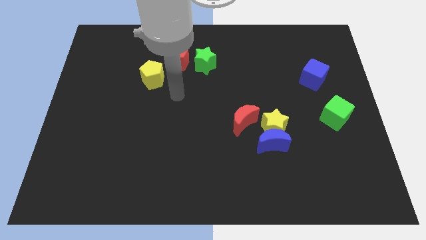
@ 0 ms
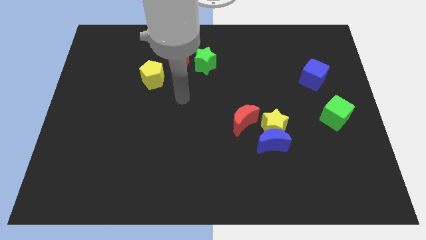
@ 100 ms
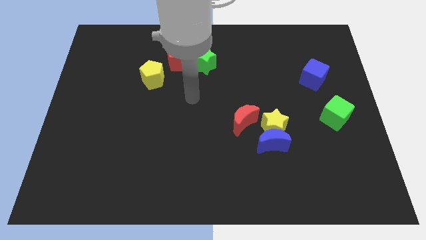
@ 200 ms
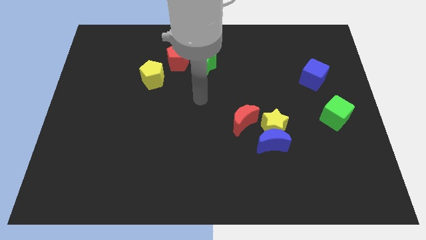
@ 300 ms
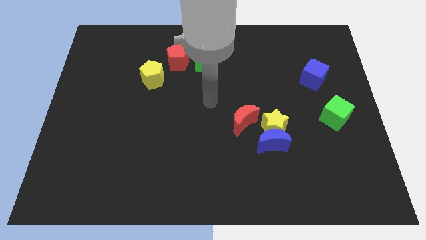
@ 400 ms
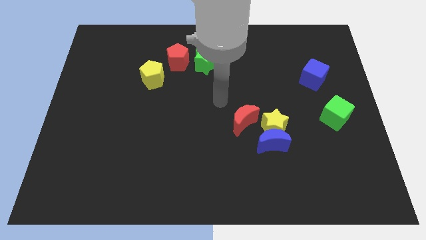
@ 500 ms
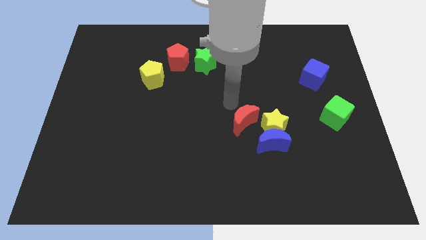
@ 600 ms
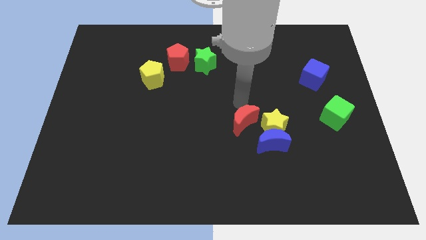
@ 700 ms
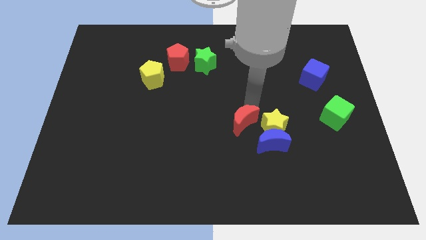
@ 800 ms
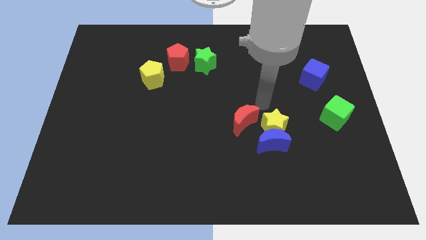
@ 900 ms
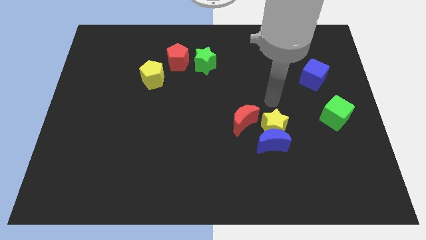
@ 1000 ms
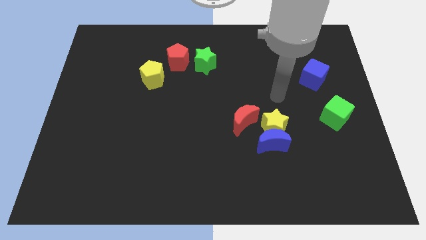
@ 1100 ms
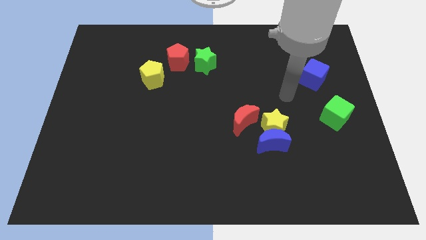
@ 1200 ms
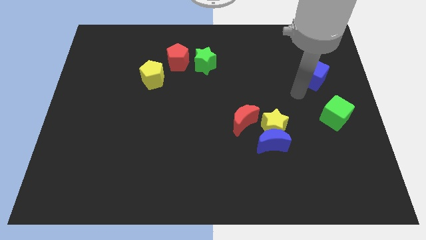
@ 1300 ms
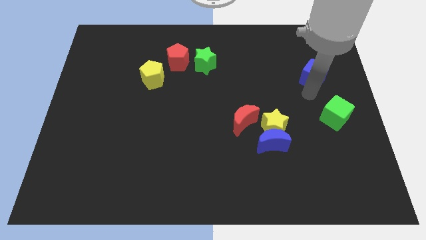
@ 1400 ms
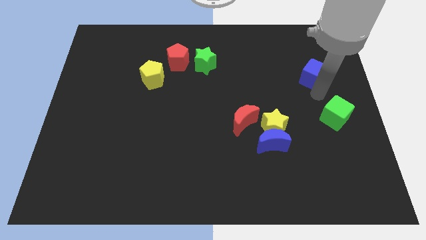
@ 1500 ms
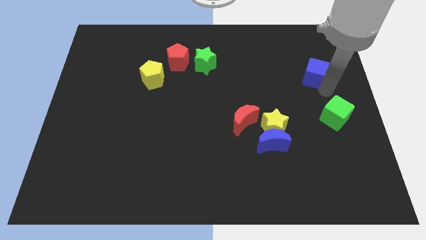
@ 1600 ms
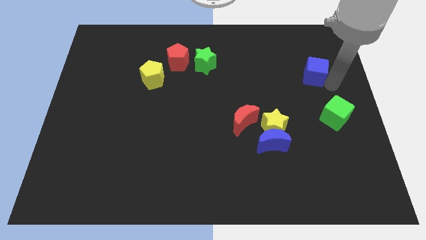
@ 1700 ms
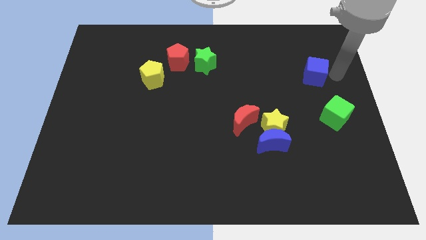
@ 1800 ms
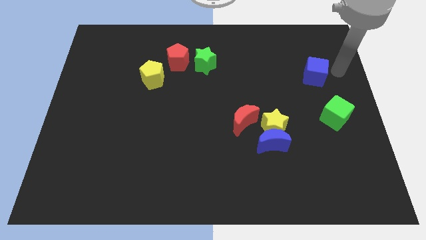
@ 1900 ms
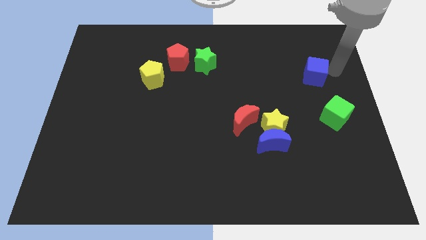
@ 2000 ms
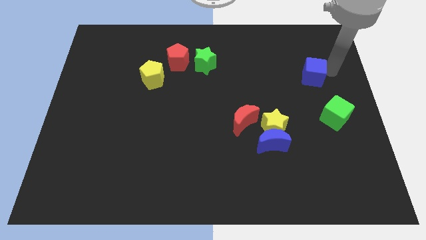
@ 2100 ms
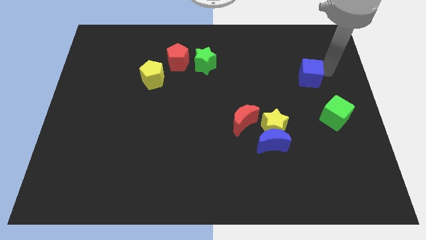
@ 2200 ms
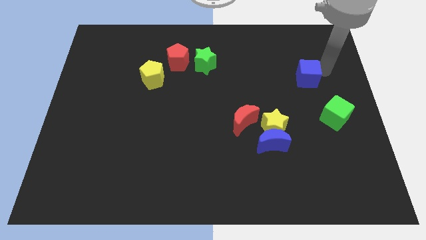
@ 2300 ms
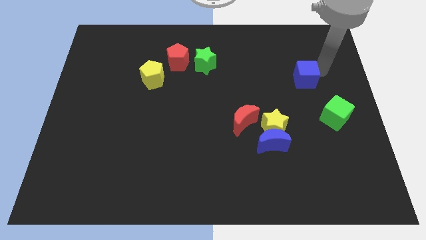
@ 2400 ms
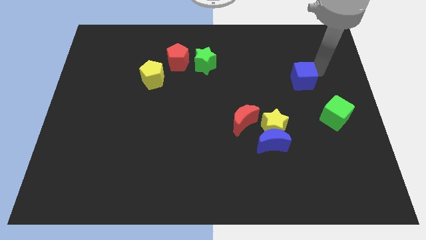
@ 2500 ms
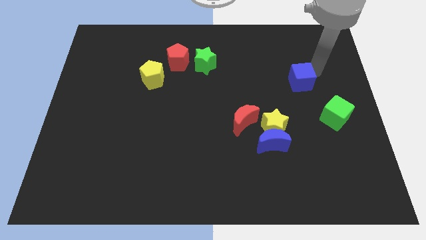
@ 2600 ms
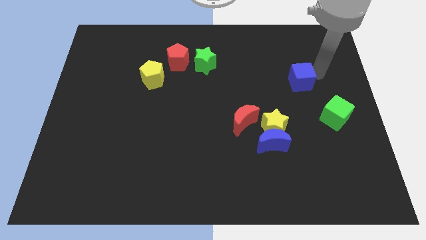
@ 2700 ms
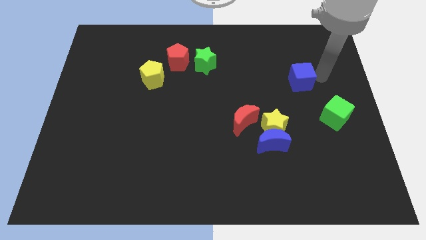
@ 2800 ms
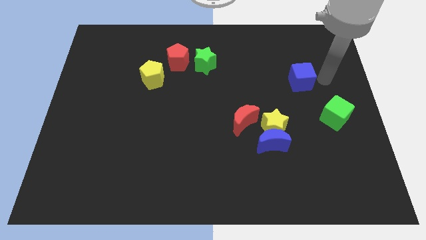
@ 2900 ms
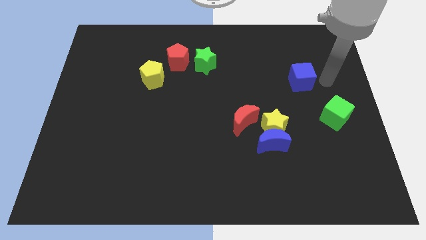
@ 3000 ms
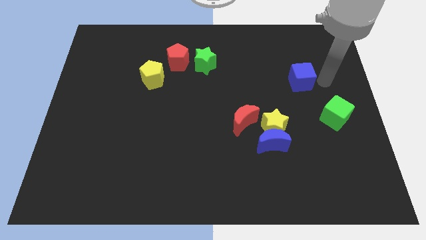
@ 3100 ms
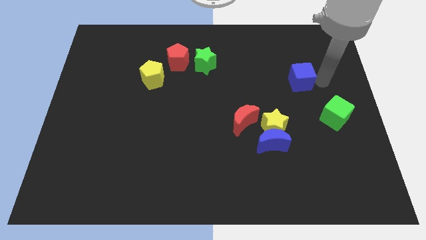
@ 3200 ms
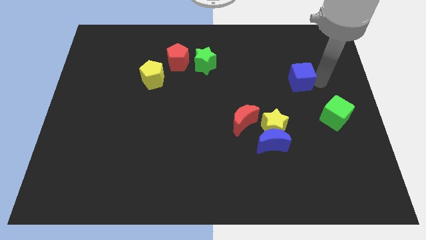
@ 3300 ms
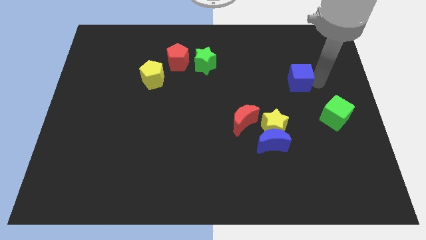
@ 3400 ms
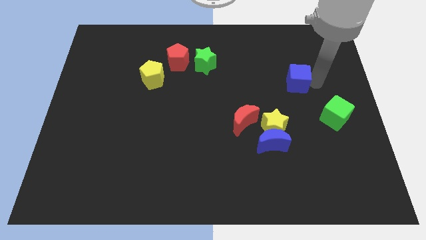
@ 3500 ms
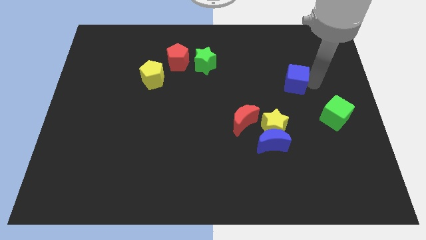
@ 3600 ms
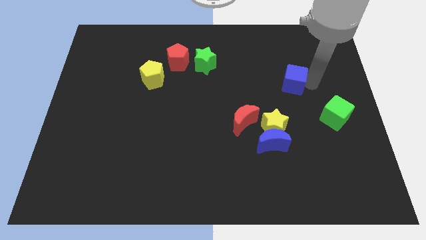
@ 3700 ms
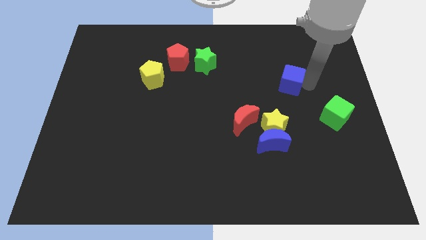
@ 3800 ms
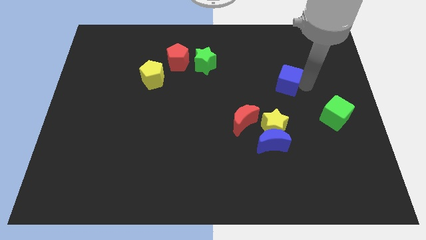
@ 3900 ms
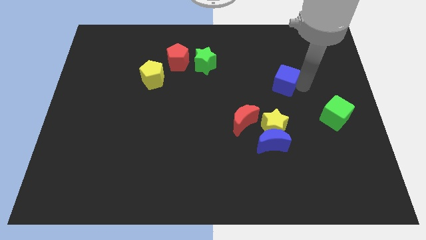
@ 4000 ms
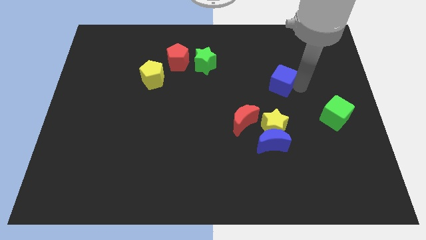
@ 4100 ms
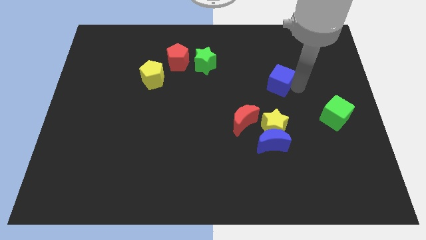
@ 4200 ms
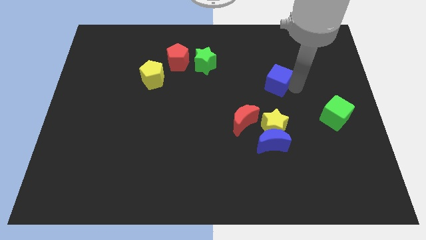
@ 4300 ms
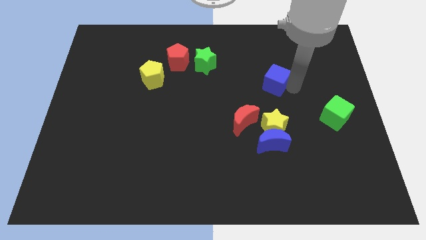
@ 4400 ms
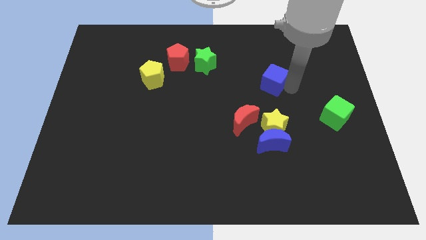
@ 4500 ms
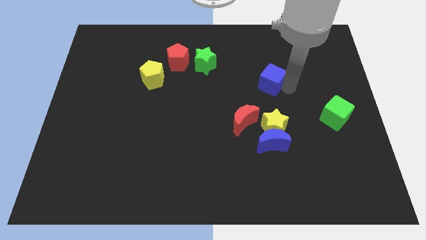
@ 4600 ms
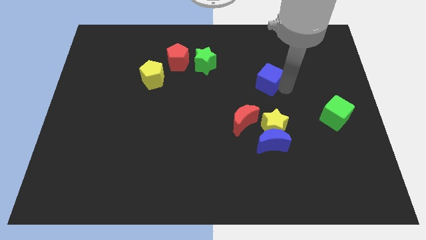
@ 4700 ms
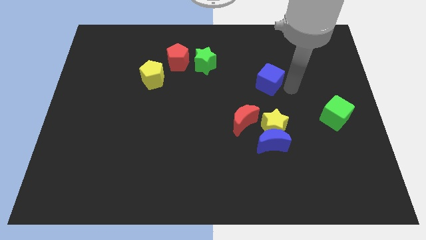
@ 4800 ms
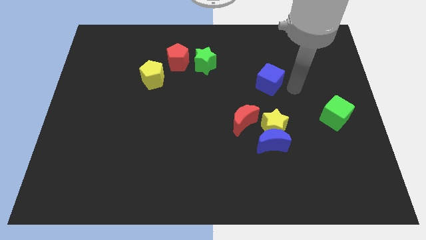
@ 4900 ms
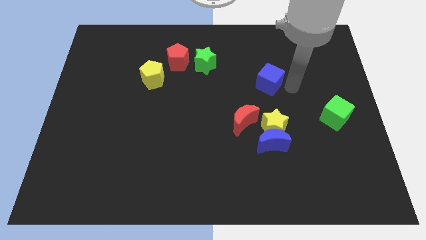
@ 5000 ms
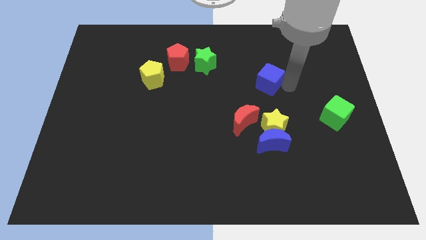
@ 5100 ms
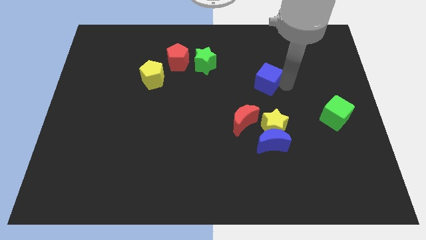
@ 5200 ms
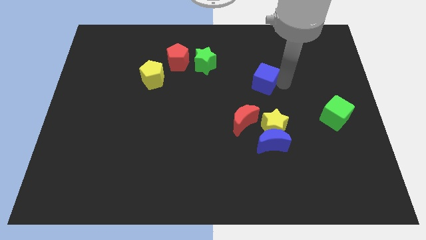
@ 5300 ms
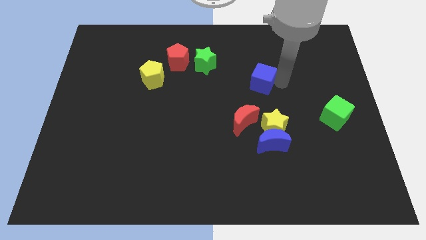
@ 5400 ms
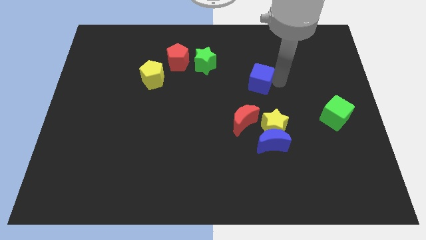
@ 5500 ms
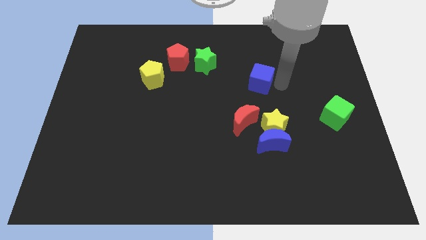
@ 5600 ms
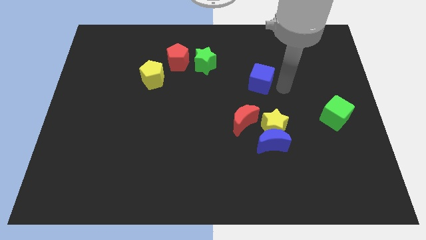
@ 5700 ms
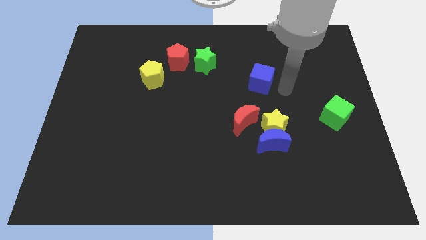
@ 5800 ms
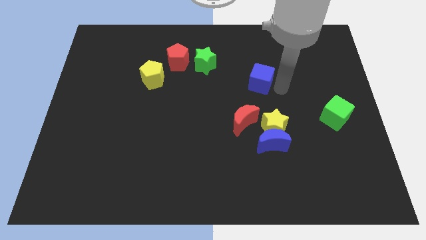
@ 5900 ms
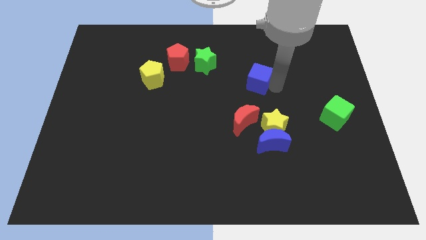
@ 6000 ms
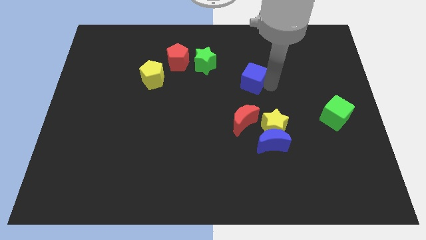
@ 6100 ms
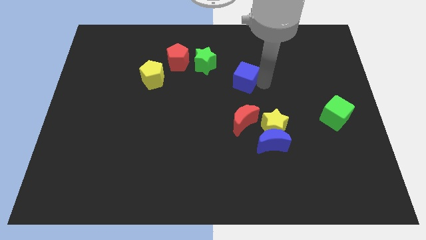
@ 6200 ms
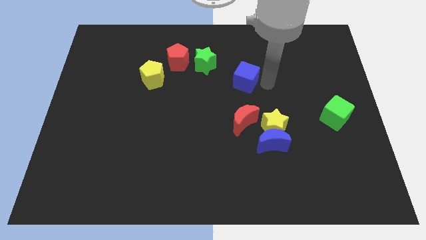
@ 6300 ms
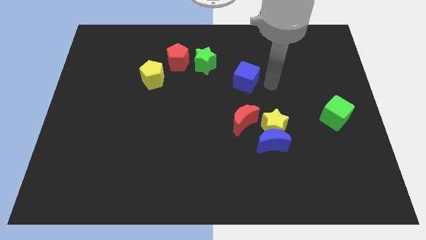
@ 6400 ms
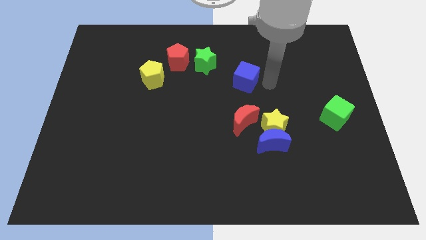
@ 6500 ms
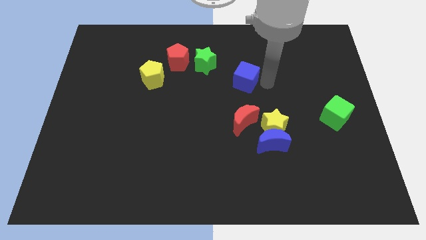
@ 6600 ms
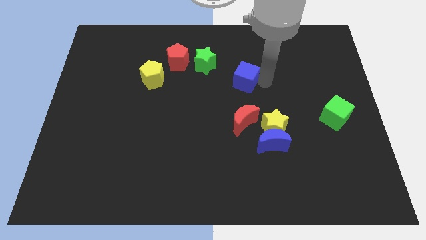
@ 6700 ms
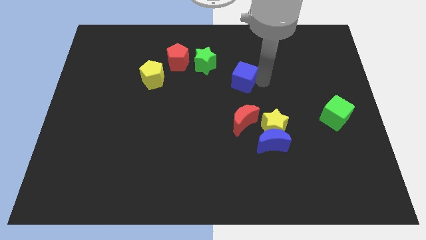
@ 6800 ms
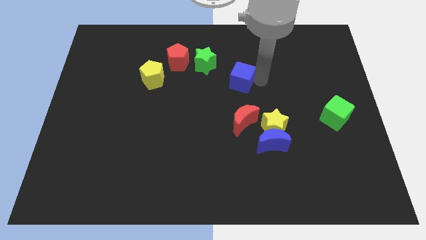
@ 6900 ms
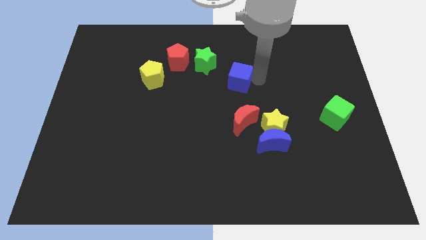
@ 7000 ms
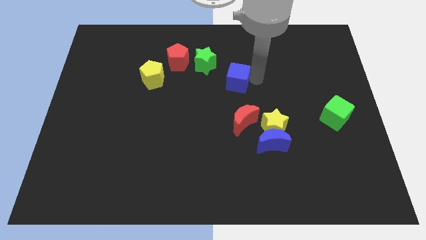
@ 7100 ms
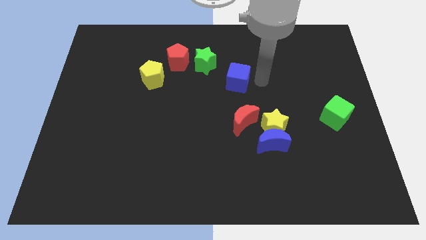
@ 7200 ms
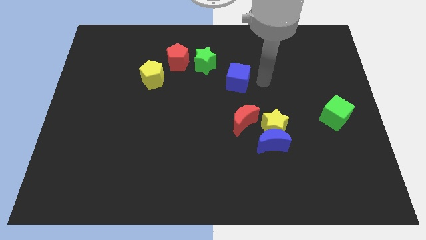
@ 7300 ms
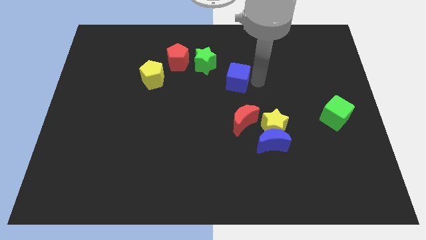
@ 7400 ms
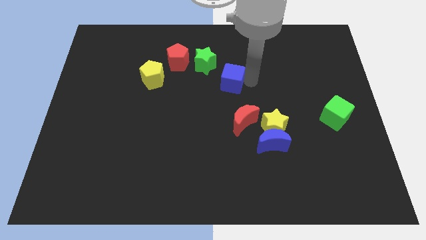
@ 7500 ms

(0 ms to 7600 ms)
slide the blue cube left

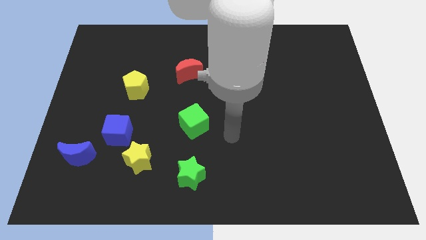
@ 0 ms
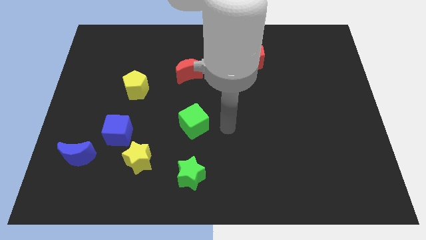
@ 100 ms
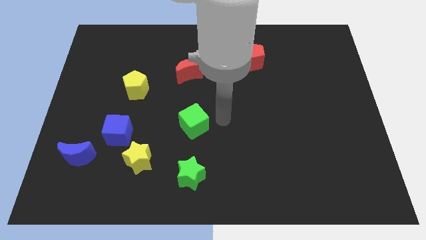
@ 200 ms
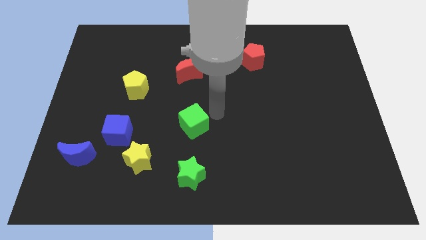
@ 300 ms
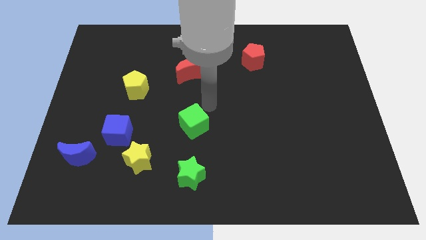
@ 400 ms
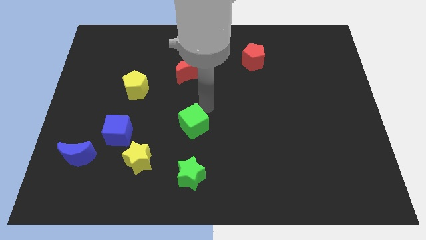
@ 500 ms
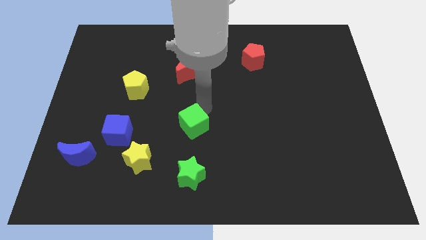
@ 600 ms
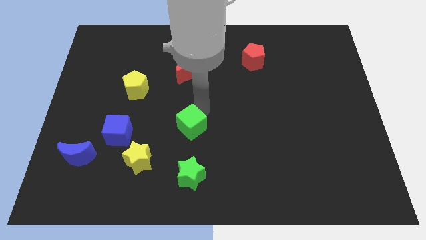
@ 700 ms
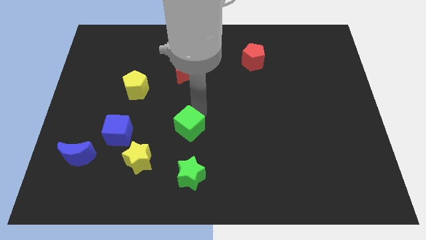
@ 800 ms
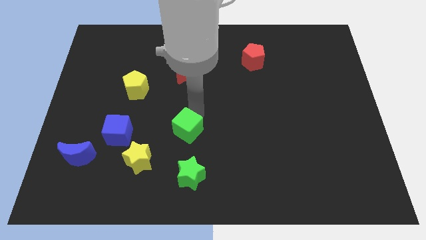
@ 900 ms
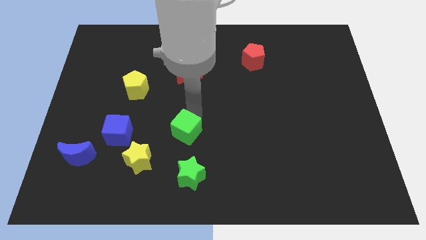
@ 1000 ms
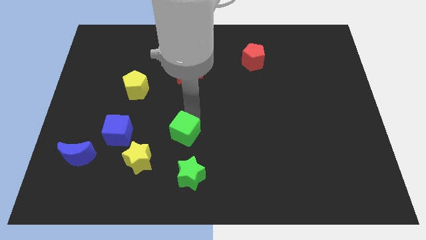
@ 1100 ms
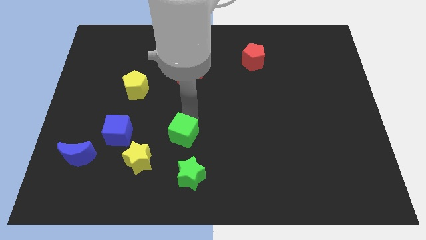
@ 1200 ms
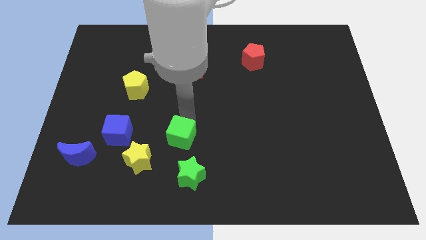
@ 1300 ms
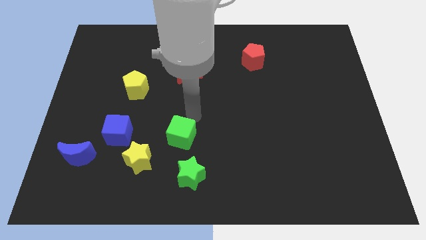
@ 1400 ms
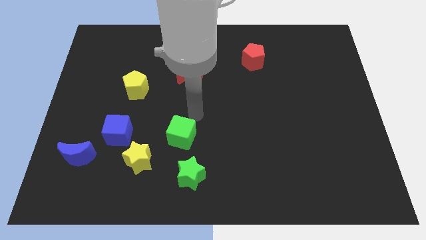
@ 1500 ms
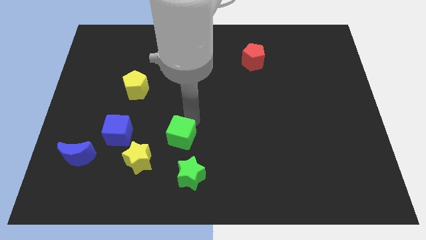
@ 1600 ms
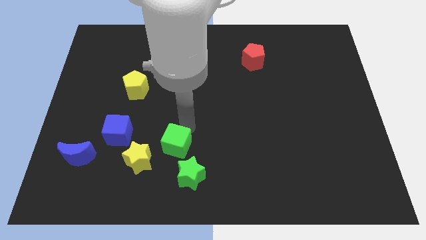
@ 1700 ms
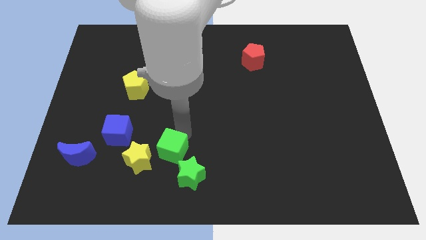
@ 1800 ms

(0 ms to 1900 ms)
slightly move the green cube down and left diagonally
